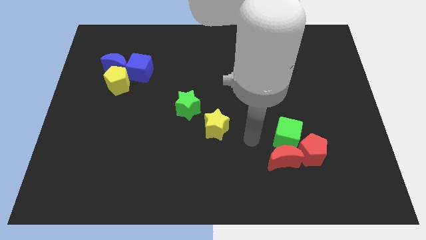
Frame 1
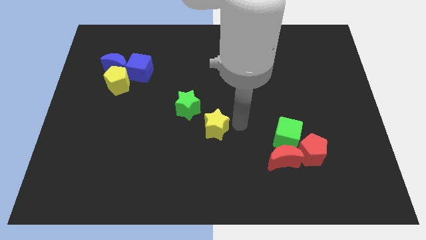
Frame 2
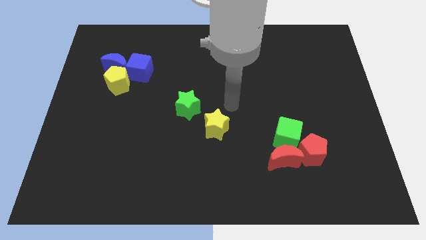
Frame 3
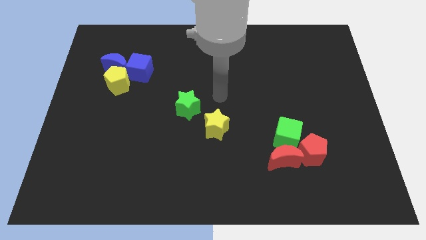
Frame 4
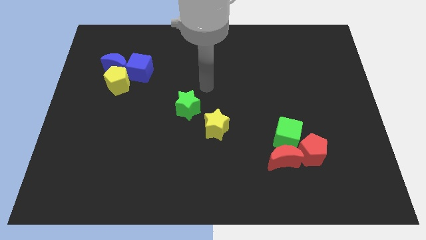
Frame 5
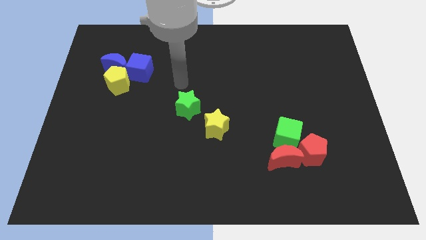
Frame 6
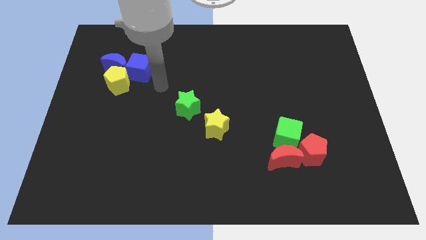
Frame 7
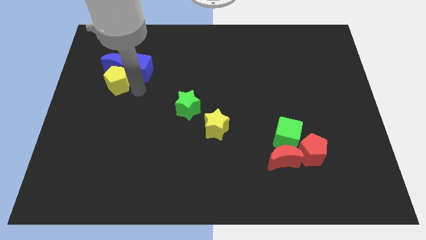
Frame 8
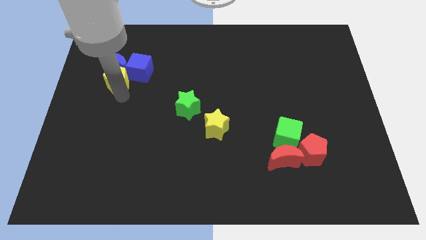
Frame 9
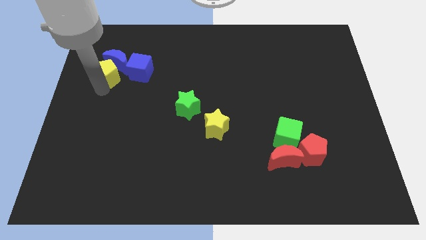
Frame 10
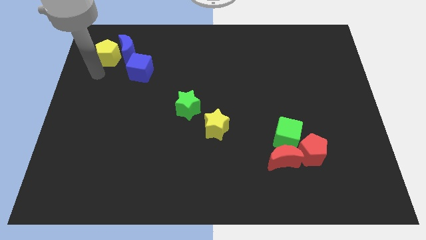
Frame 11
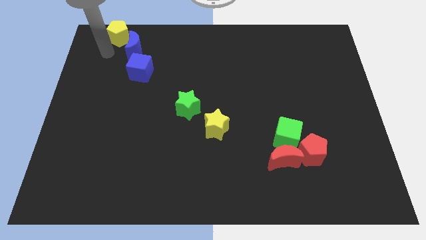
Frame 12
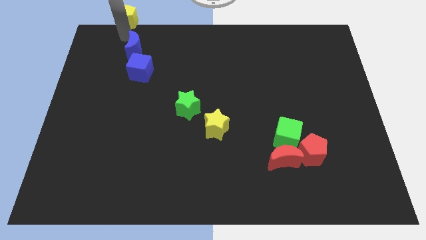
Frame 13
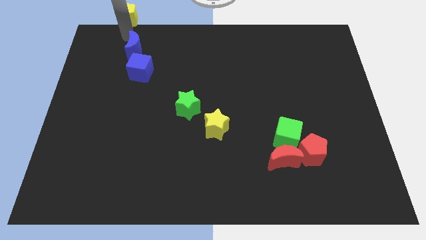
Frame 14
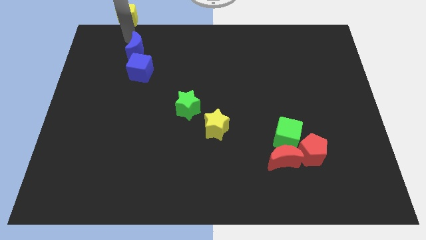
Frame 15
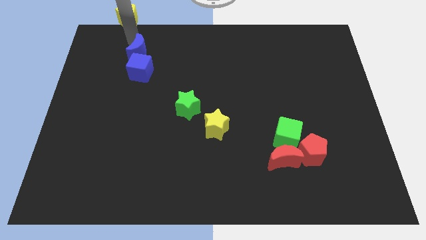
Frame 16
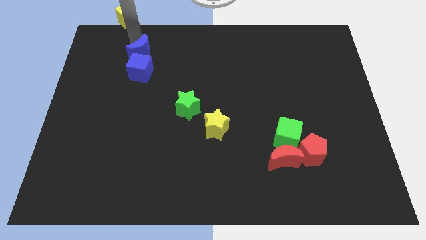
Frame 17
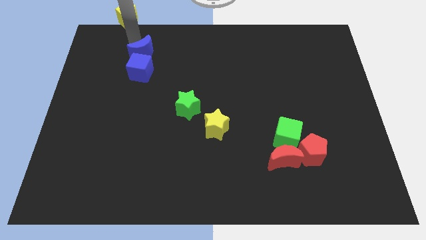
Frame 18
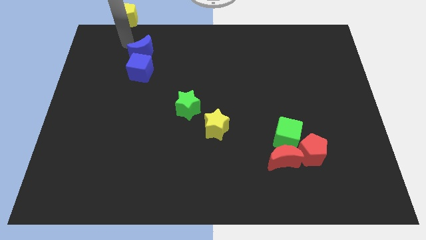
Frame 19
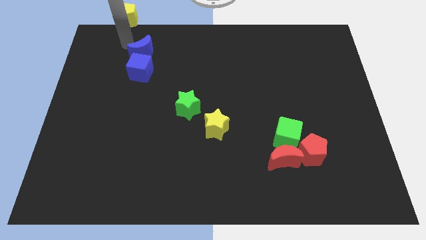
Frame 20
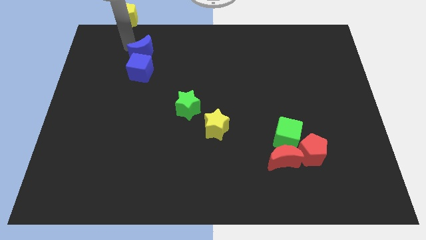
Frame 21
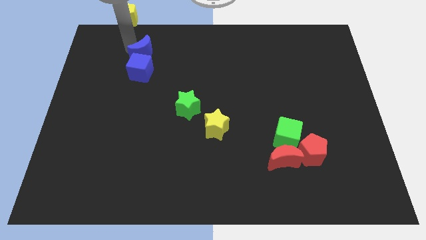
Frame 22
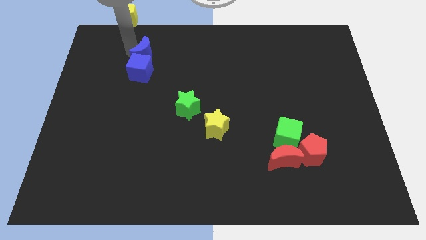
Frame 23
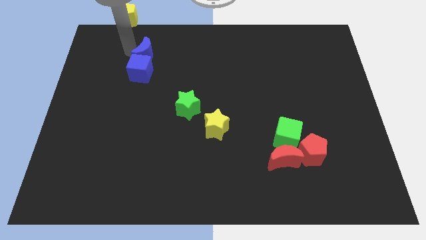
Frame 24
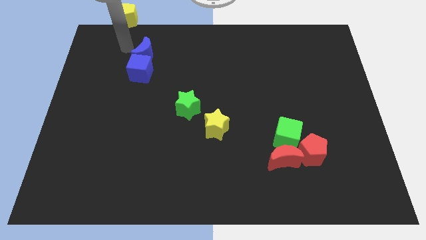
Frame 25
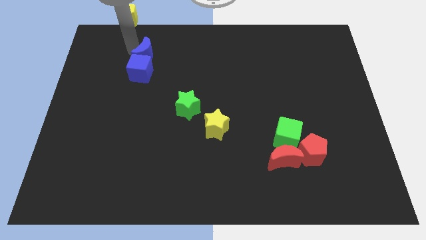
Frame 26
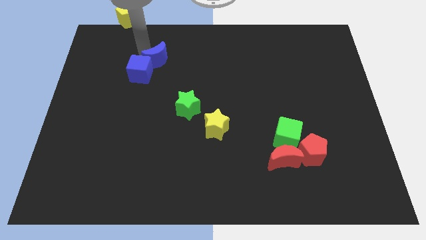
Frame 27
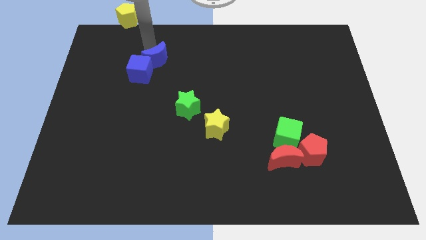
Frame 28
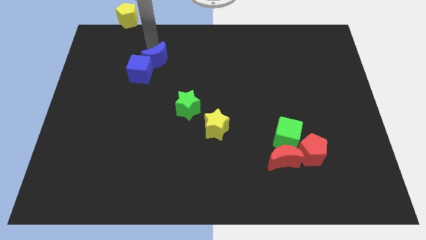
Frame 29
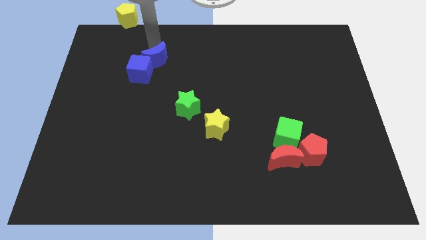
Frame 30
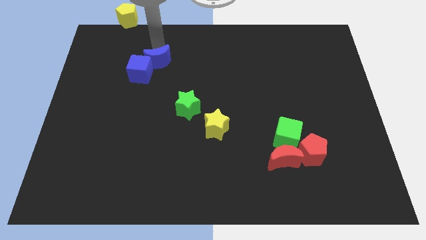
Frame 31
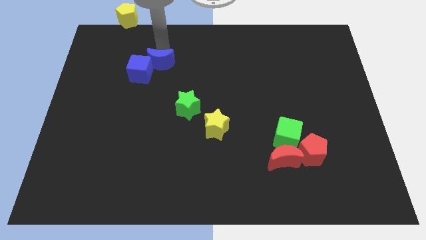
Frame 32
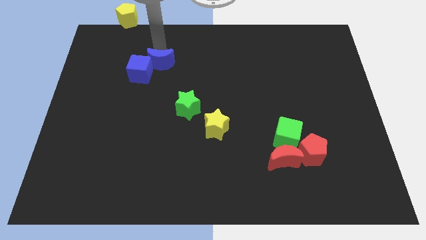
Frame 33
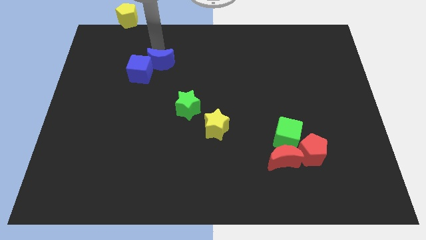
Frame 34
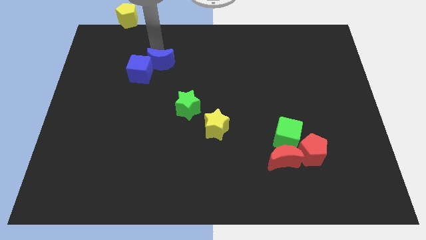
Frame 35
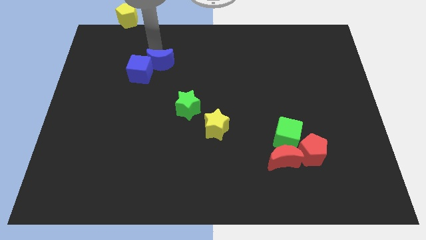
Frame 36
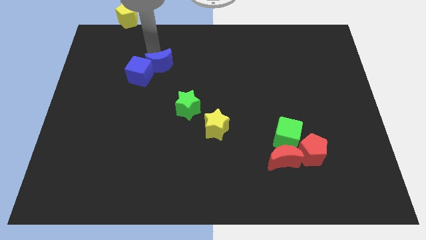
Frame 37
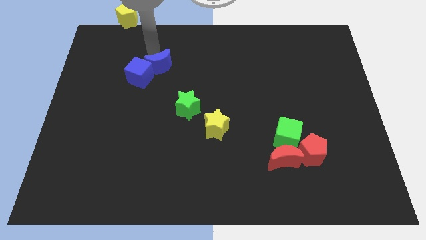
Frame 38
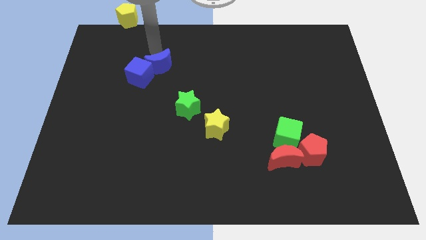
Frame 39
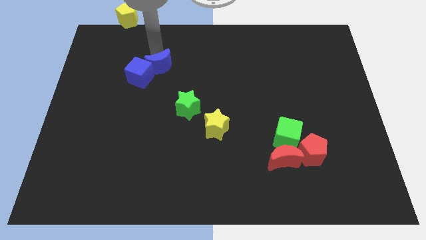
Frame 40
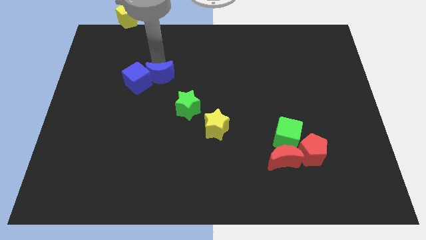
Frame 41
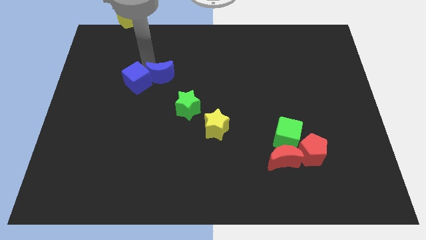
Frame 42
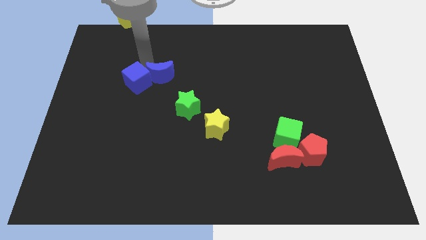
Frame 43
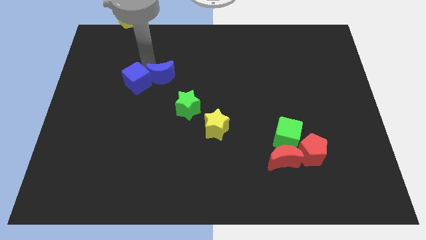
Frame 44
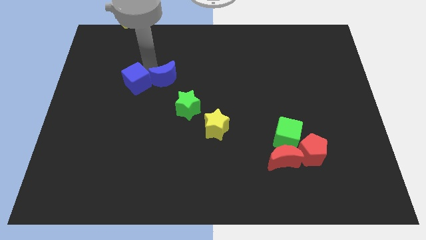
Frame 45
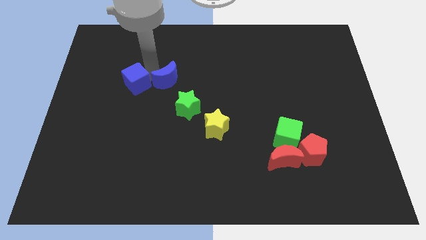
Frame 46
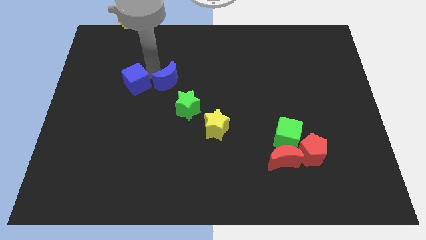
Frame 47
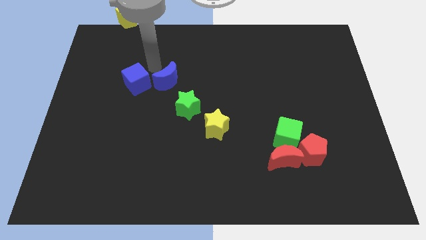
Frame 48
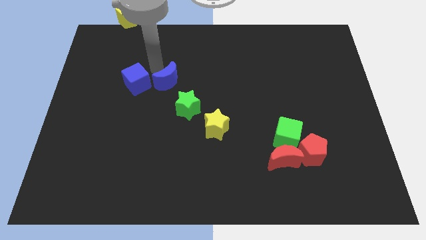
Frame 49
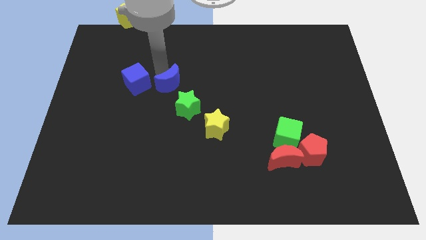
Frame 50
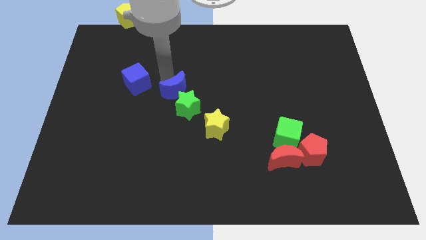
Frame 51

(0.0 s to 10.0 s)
slide the blue moon to the green star

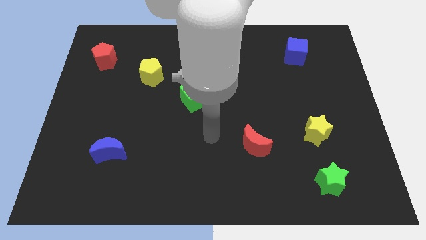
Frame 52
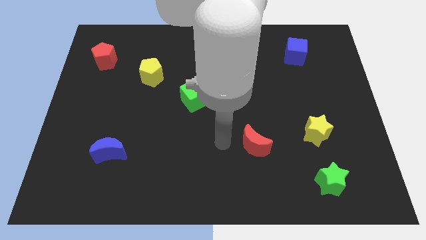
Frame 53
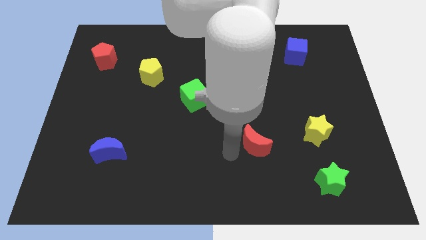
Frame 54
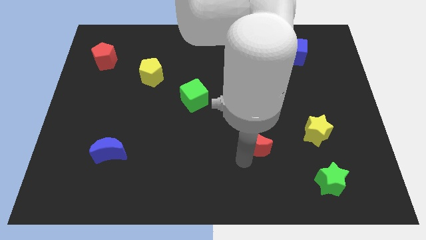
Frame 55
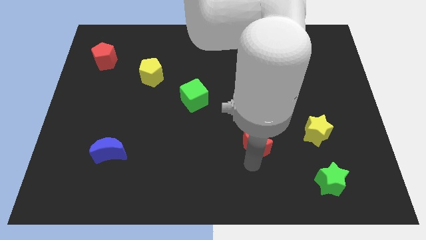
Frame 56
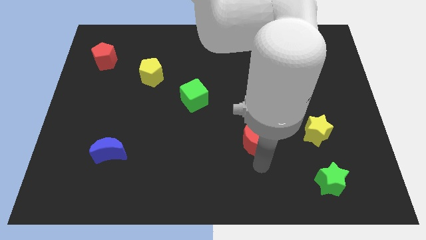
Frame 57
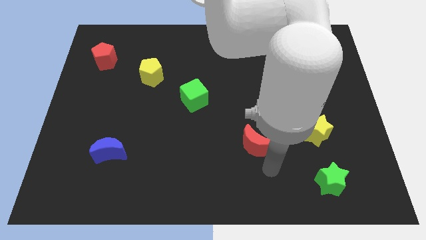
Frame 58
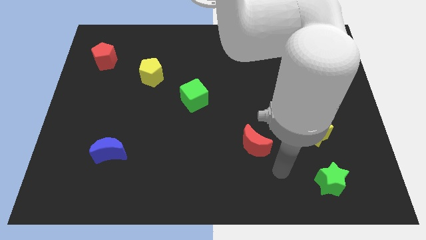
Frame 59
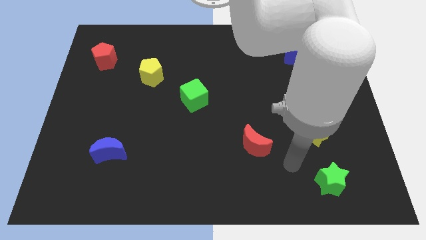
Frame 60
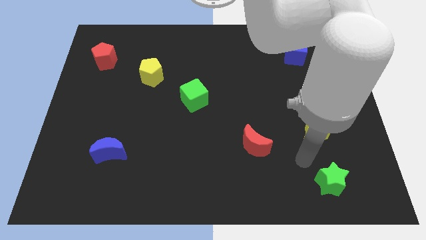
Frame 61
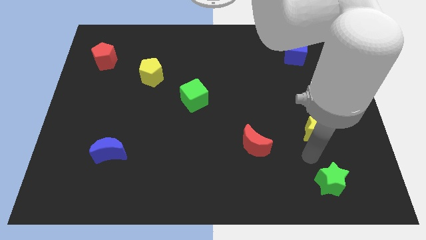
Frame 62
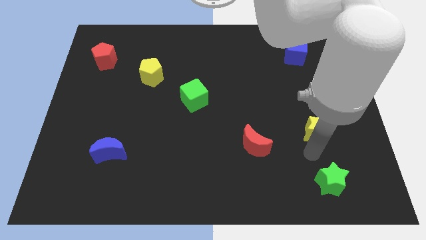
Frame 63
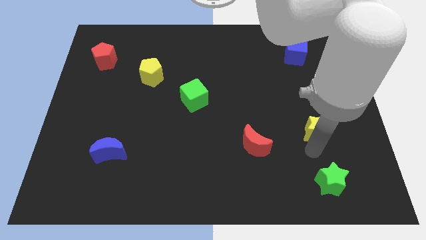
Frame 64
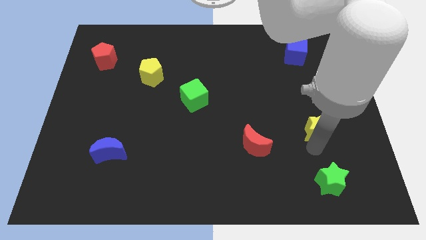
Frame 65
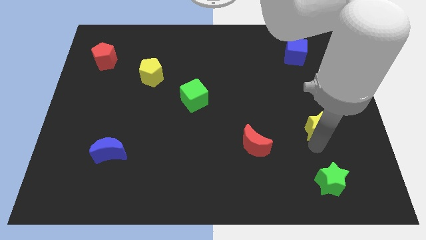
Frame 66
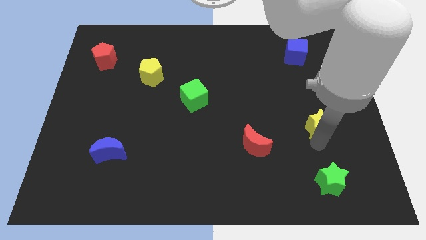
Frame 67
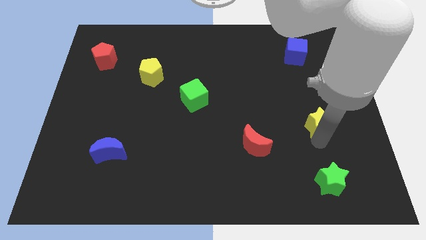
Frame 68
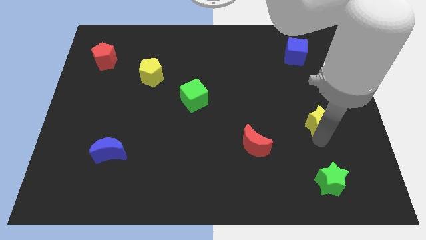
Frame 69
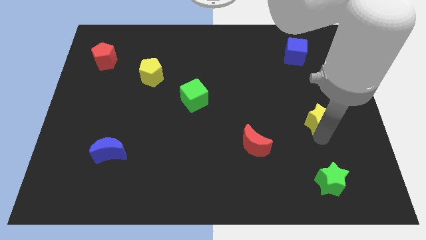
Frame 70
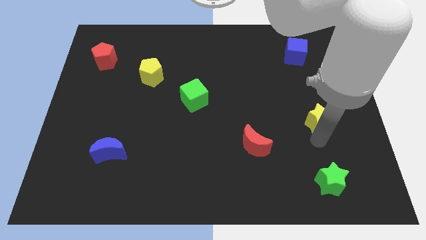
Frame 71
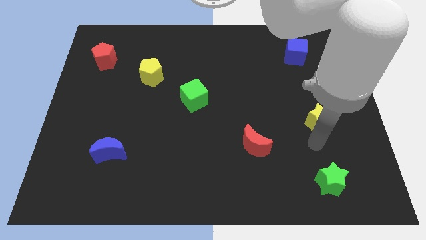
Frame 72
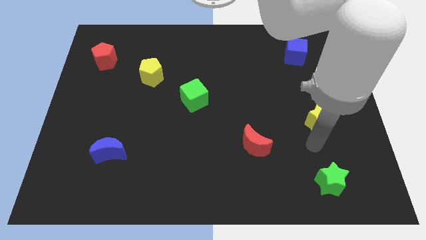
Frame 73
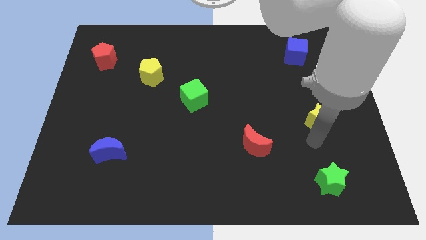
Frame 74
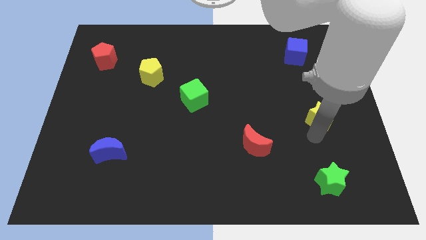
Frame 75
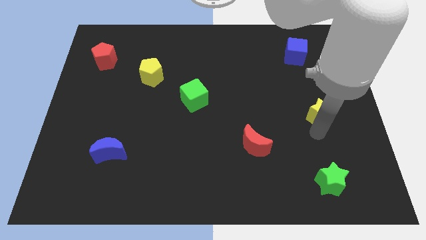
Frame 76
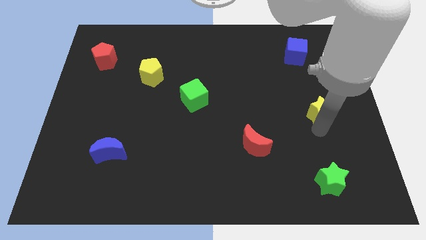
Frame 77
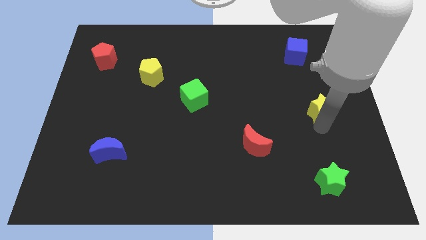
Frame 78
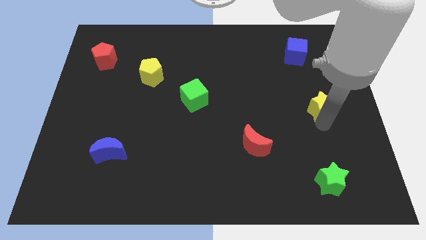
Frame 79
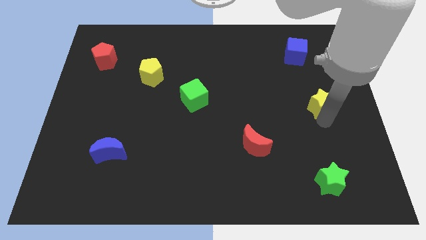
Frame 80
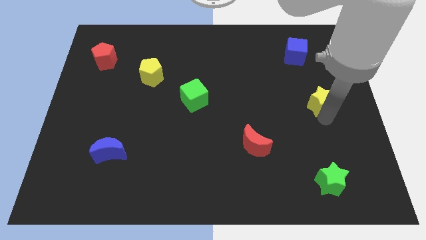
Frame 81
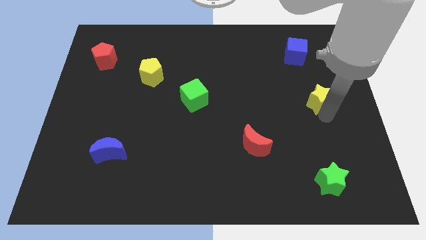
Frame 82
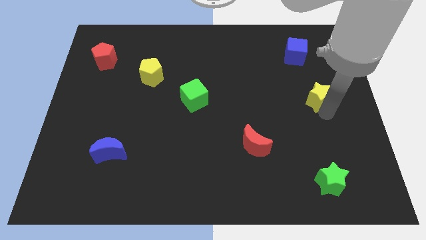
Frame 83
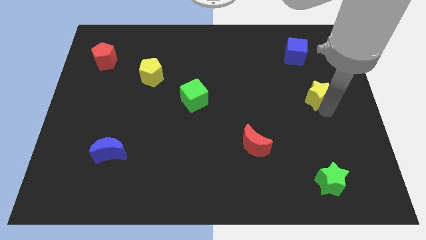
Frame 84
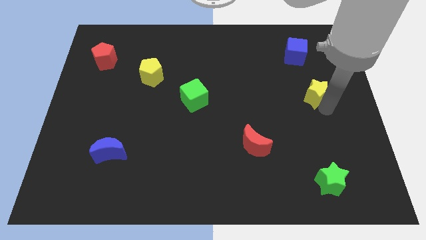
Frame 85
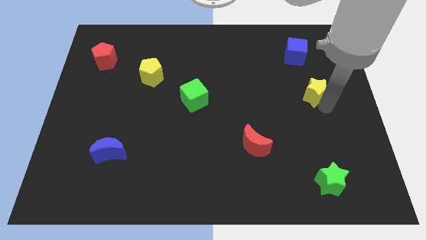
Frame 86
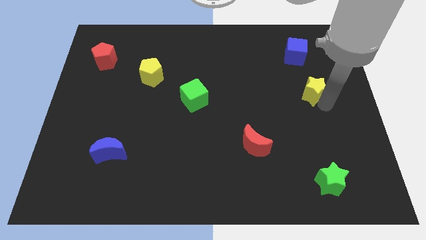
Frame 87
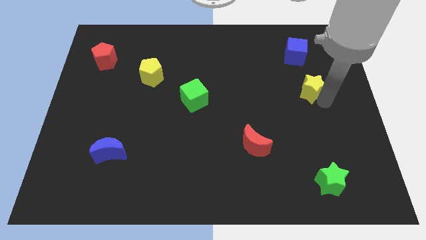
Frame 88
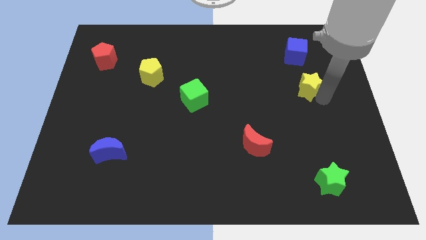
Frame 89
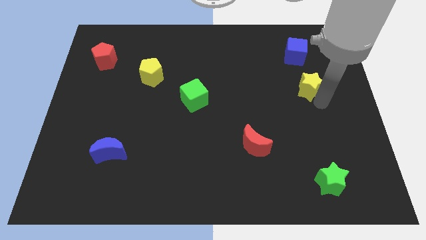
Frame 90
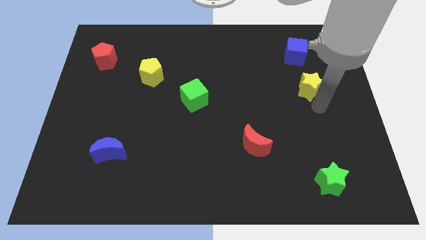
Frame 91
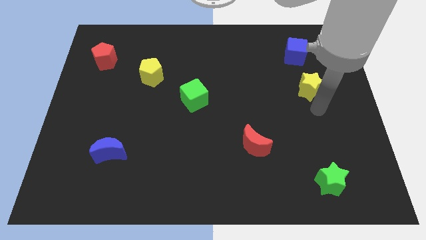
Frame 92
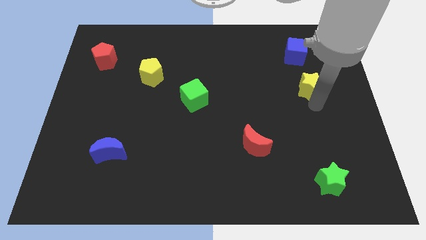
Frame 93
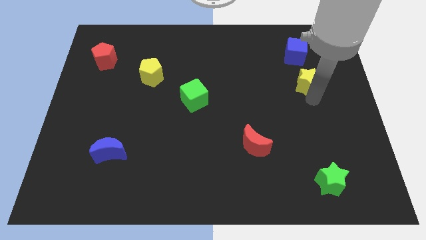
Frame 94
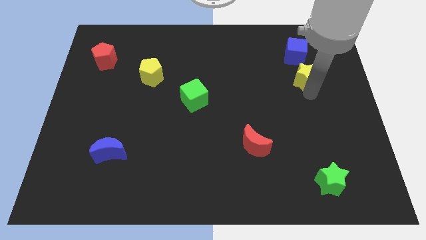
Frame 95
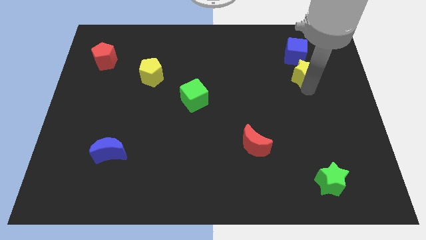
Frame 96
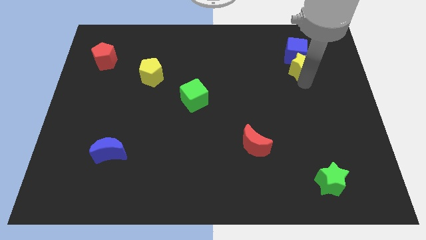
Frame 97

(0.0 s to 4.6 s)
push the yellow star to the blue cube
